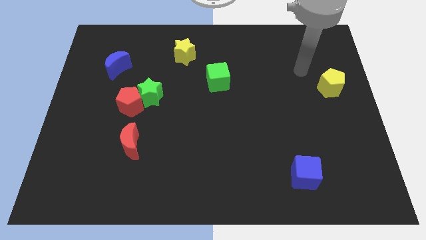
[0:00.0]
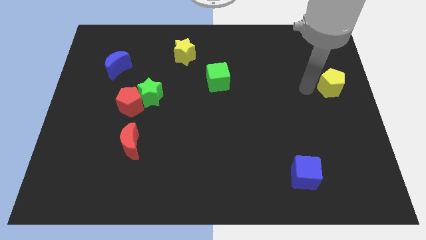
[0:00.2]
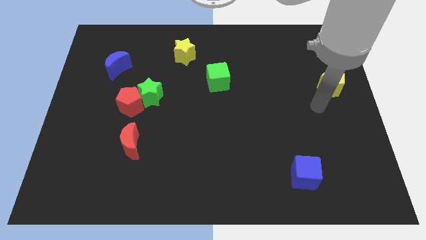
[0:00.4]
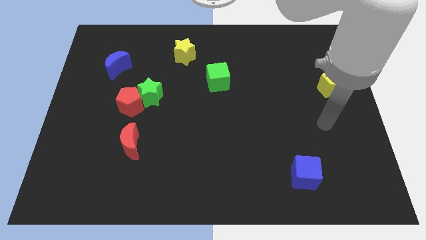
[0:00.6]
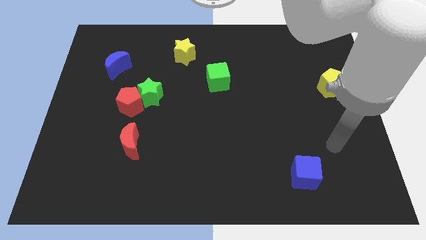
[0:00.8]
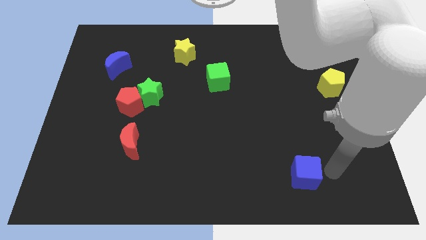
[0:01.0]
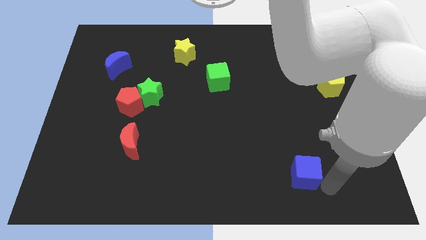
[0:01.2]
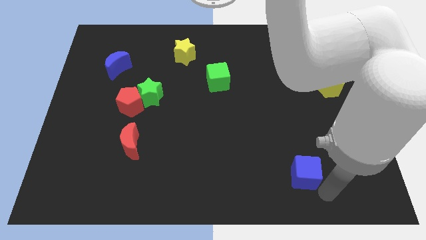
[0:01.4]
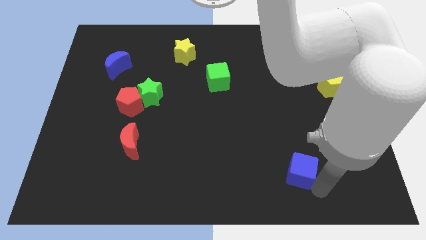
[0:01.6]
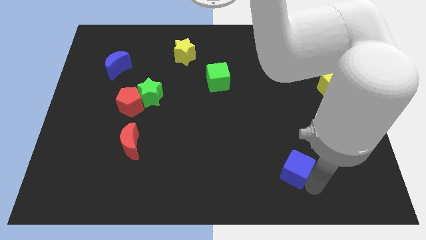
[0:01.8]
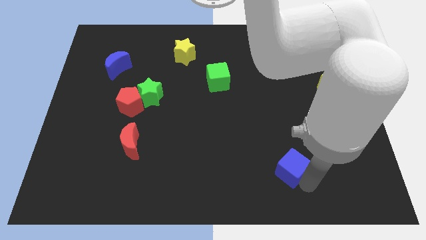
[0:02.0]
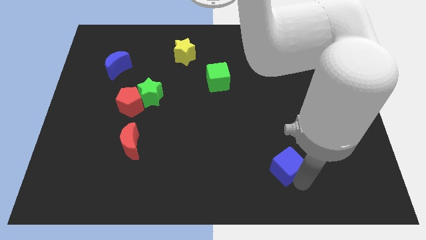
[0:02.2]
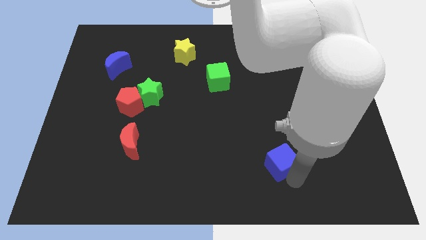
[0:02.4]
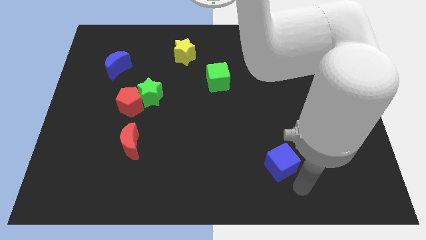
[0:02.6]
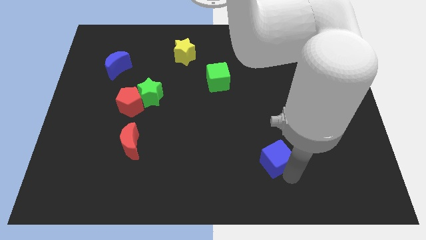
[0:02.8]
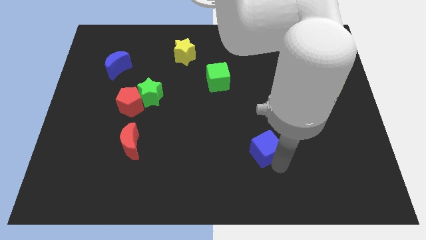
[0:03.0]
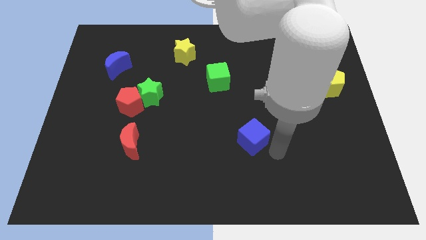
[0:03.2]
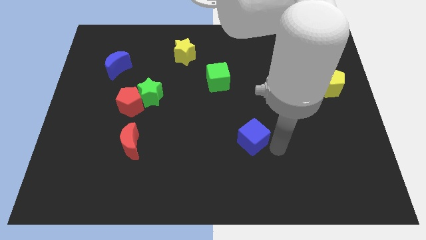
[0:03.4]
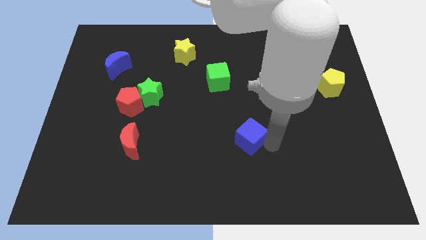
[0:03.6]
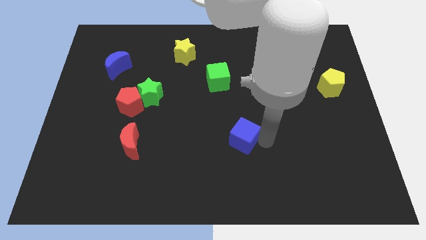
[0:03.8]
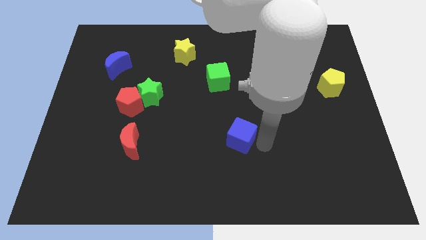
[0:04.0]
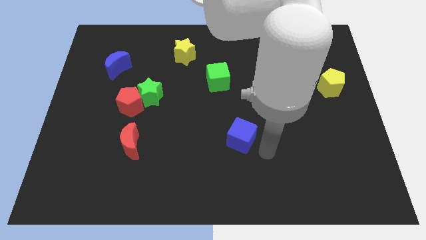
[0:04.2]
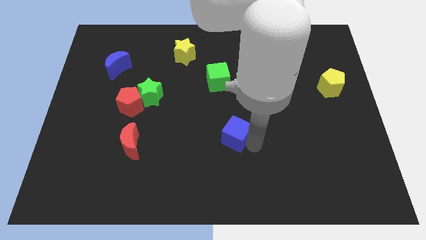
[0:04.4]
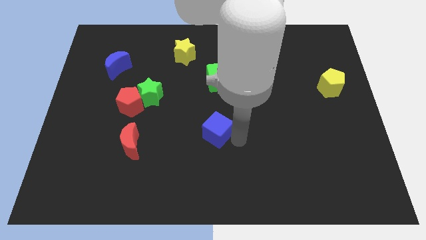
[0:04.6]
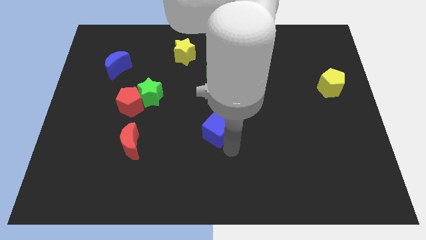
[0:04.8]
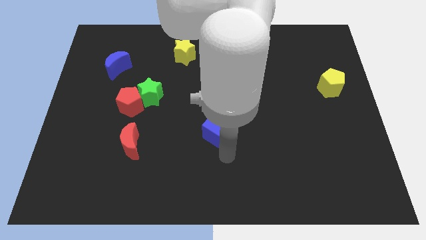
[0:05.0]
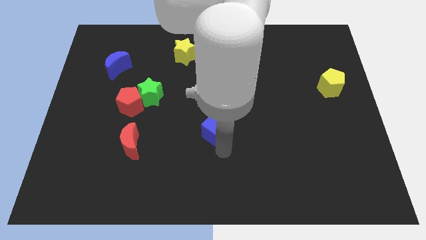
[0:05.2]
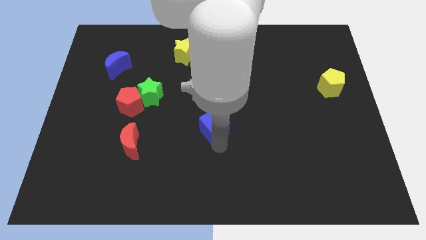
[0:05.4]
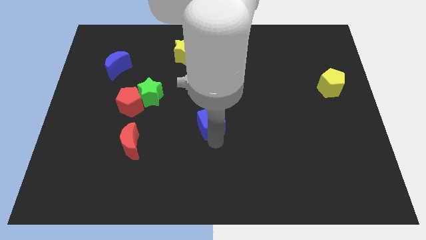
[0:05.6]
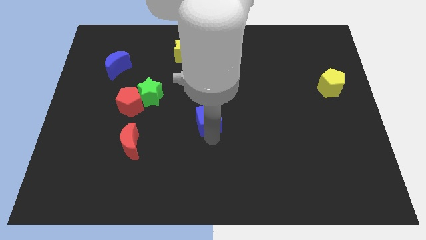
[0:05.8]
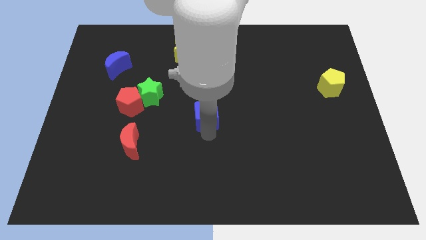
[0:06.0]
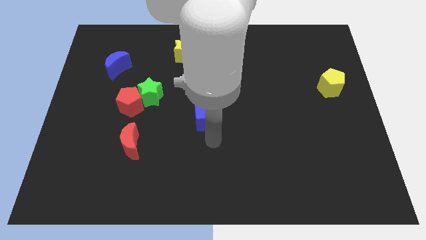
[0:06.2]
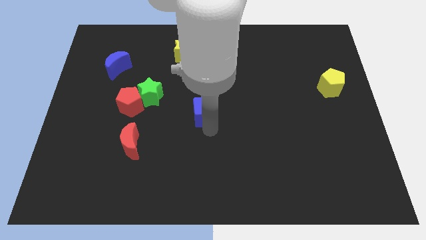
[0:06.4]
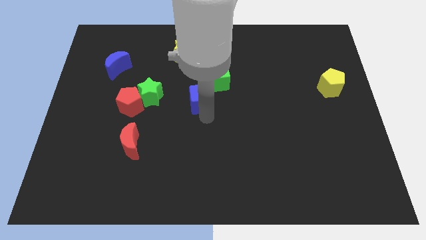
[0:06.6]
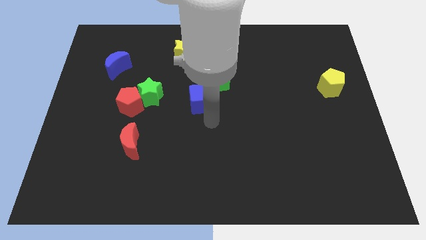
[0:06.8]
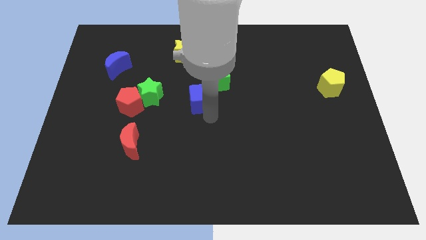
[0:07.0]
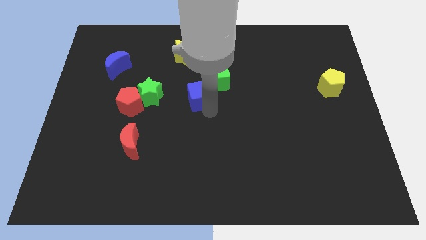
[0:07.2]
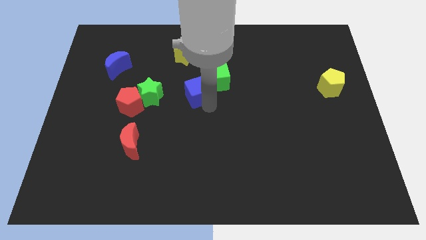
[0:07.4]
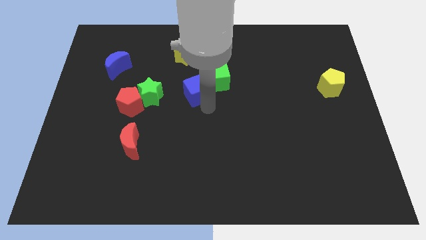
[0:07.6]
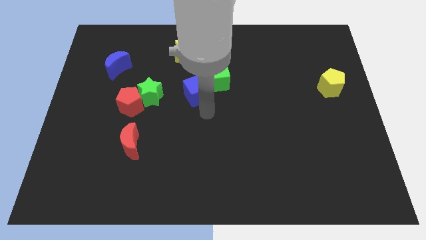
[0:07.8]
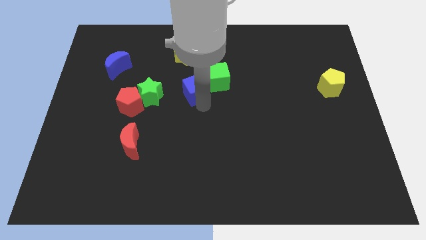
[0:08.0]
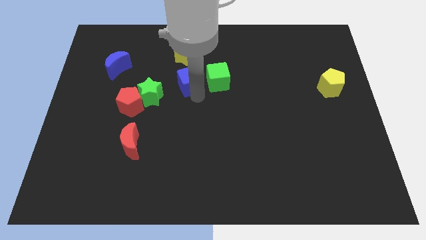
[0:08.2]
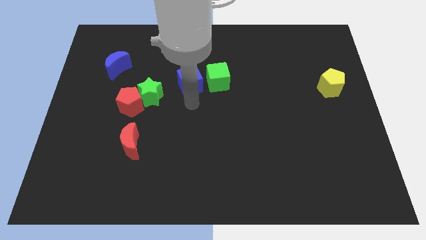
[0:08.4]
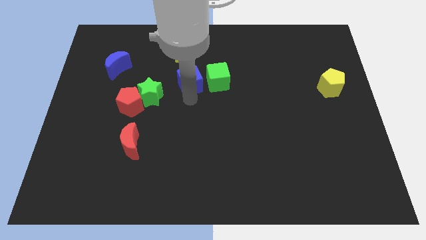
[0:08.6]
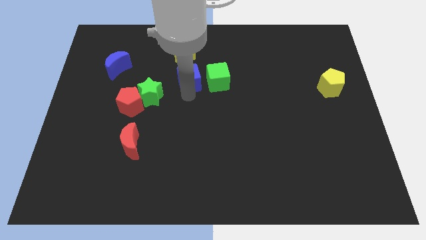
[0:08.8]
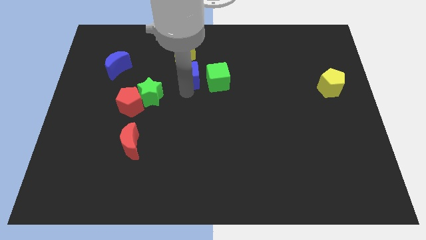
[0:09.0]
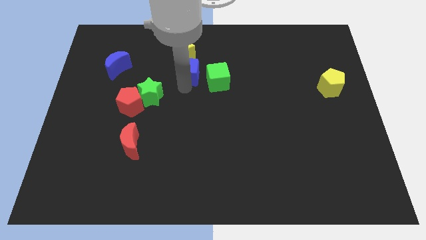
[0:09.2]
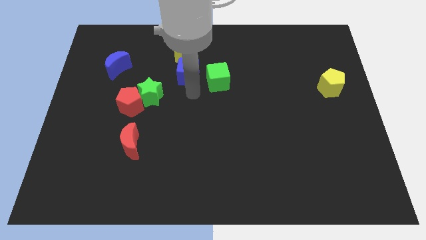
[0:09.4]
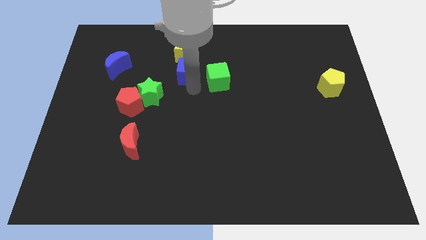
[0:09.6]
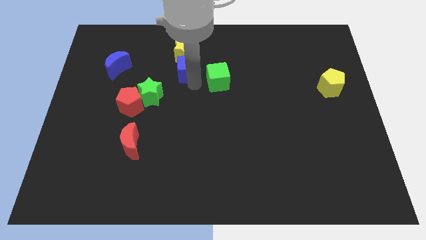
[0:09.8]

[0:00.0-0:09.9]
slide the blue cube next to the yellow star

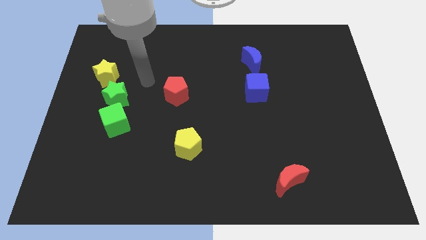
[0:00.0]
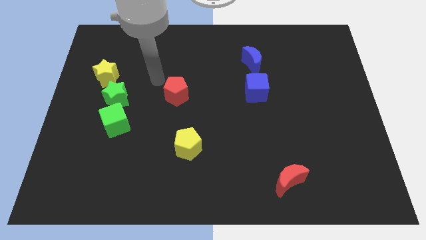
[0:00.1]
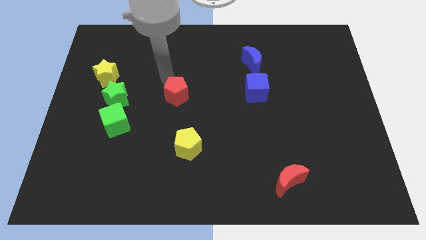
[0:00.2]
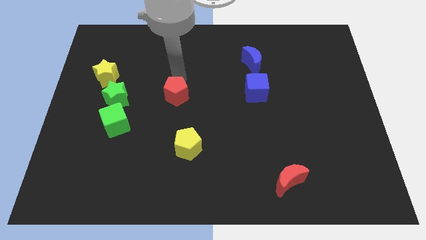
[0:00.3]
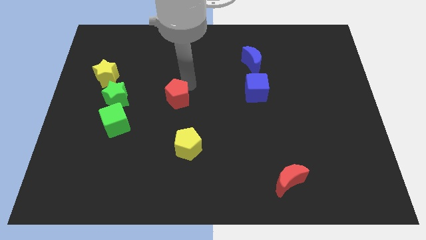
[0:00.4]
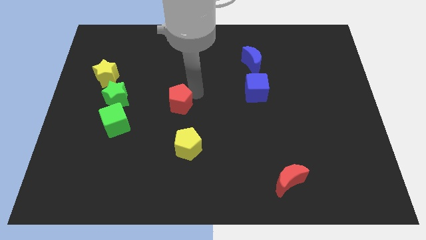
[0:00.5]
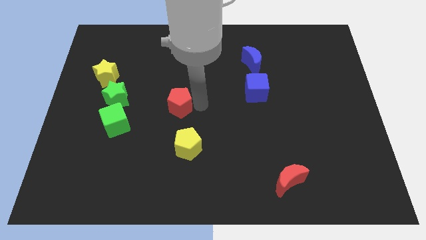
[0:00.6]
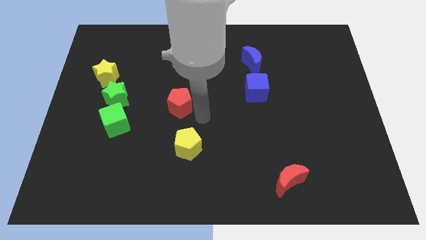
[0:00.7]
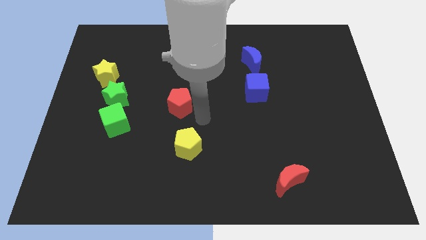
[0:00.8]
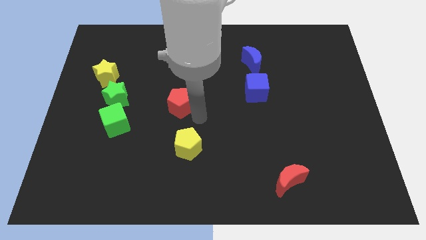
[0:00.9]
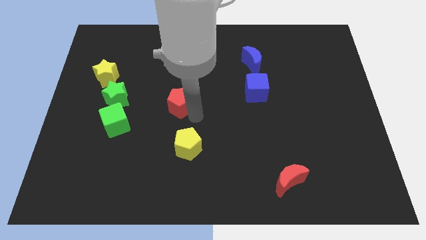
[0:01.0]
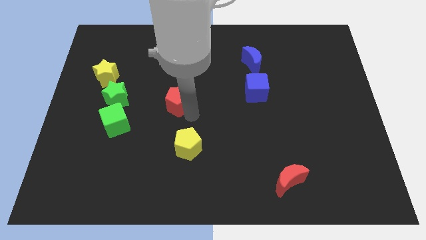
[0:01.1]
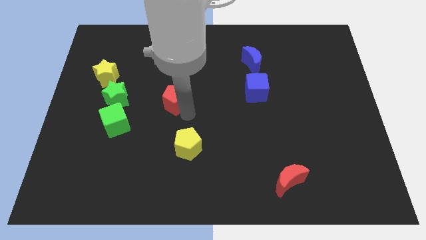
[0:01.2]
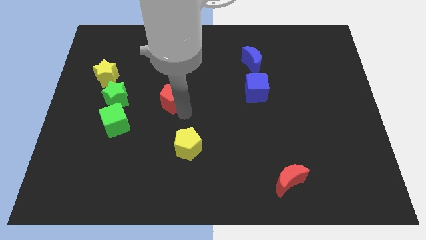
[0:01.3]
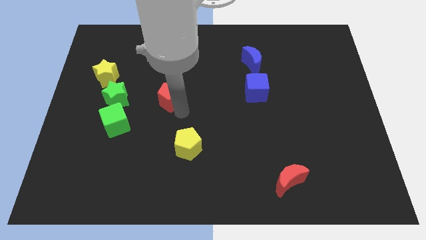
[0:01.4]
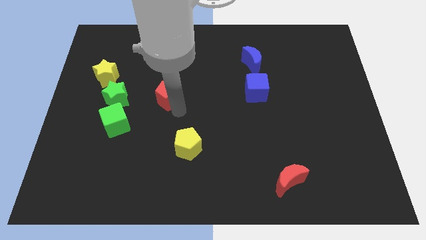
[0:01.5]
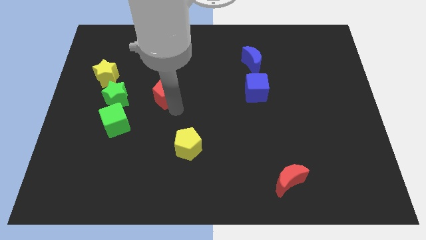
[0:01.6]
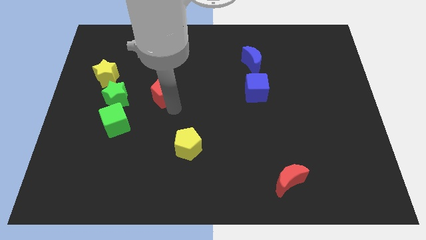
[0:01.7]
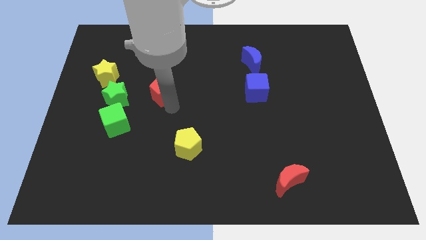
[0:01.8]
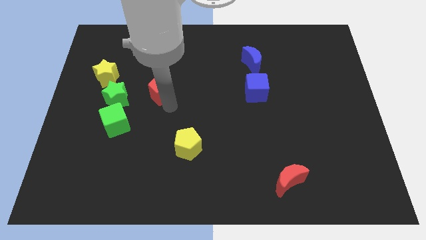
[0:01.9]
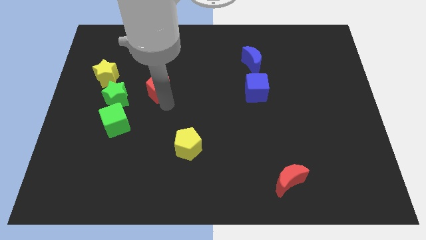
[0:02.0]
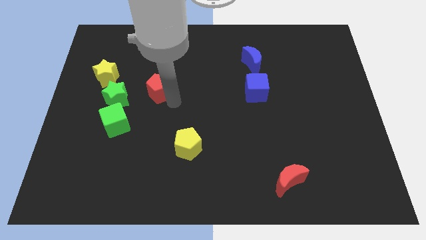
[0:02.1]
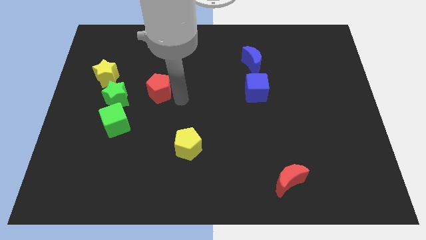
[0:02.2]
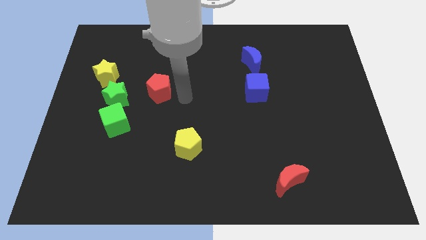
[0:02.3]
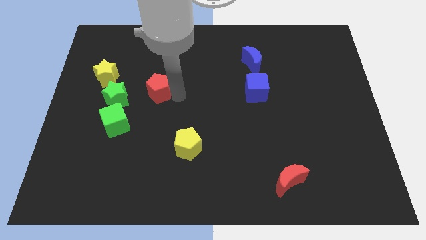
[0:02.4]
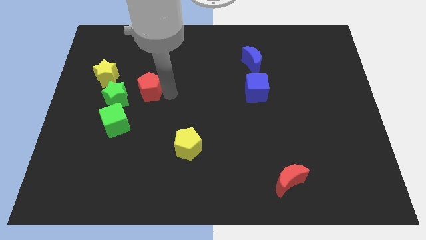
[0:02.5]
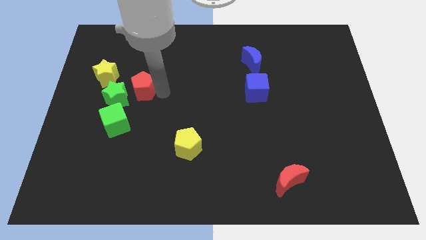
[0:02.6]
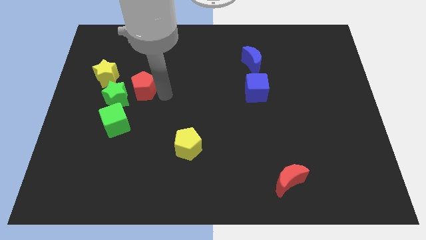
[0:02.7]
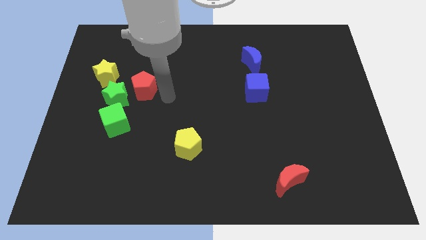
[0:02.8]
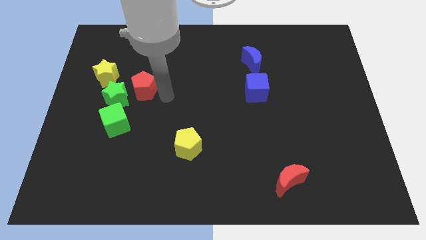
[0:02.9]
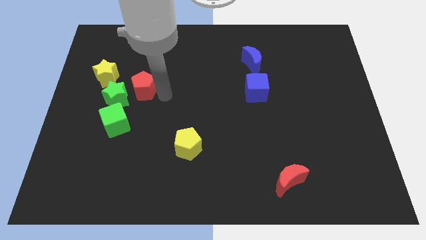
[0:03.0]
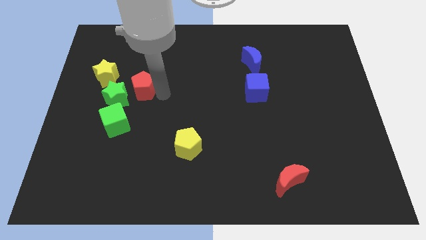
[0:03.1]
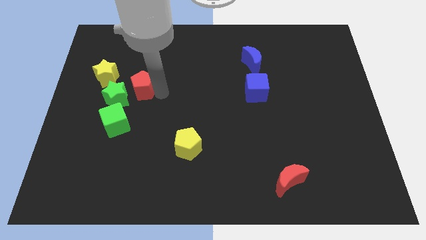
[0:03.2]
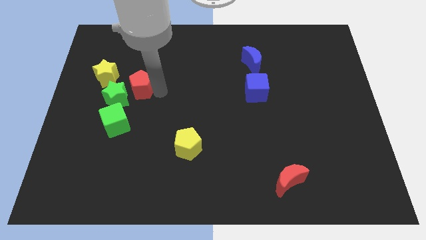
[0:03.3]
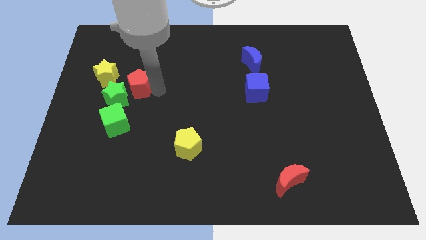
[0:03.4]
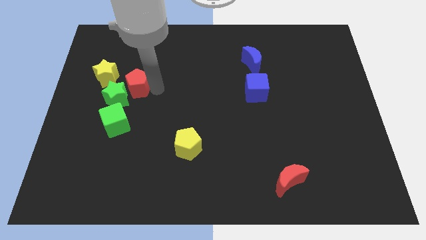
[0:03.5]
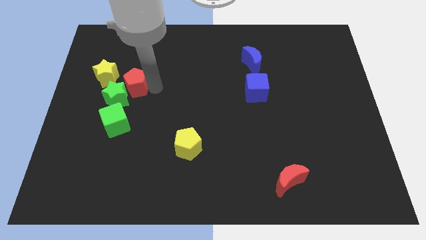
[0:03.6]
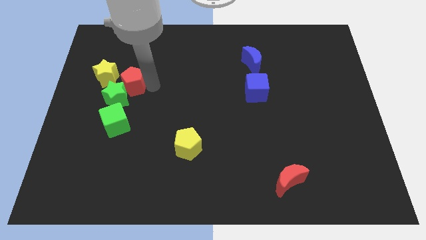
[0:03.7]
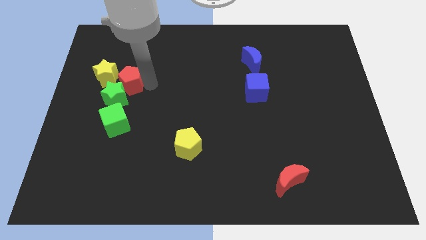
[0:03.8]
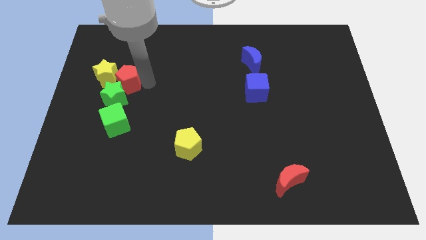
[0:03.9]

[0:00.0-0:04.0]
slide the red pentagon close to the yellow star
